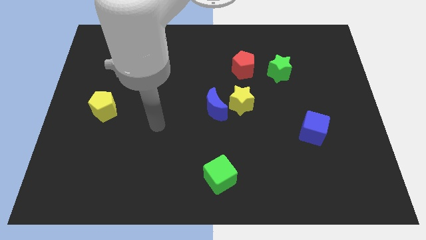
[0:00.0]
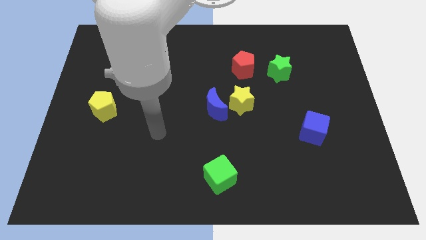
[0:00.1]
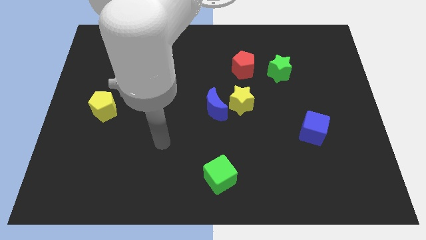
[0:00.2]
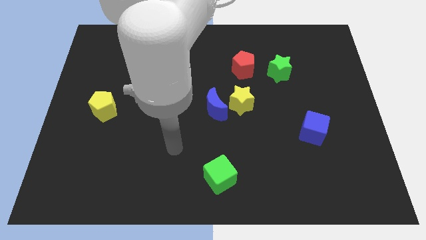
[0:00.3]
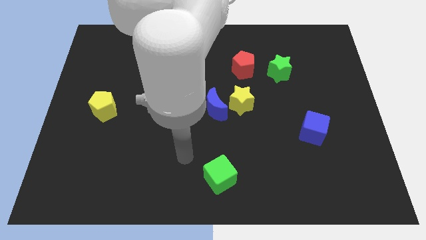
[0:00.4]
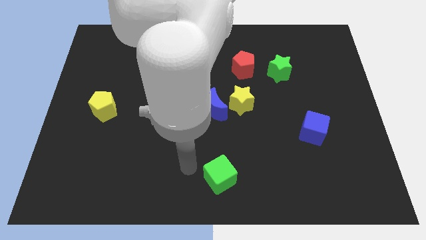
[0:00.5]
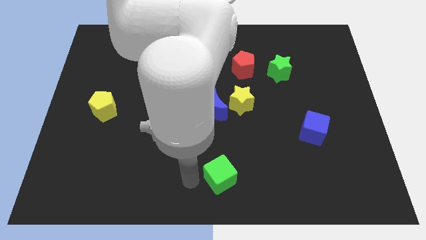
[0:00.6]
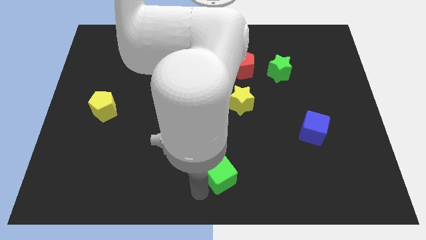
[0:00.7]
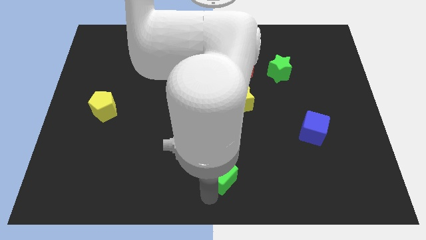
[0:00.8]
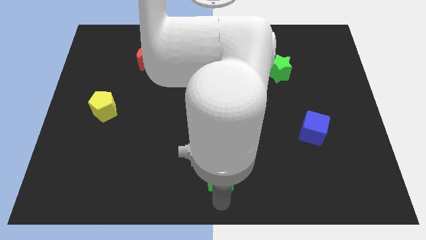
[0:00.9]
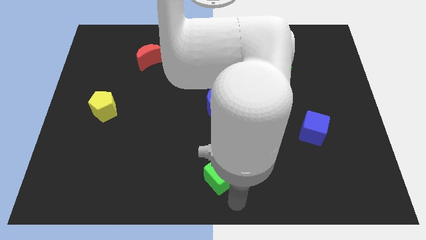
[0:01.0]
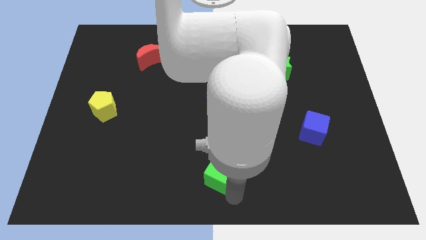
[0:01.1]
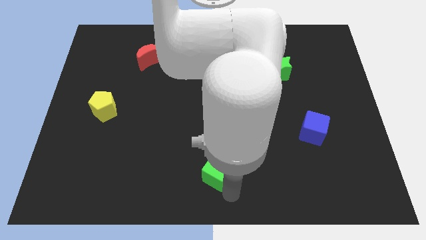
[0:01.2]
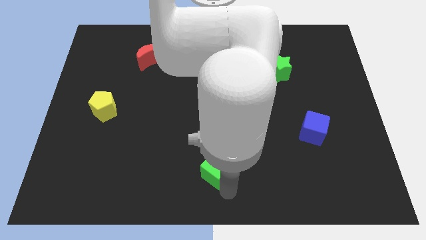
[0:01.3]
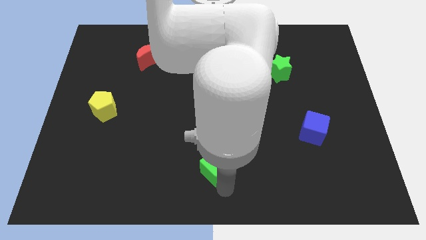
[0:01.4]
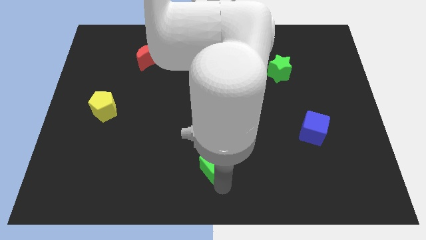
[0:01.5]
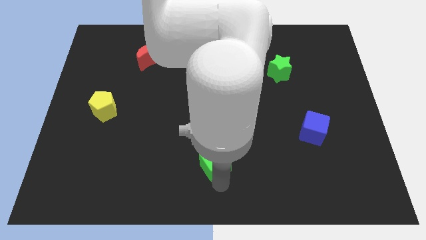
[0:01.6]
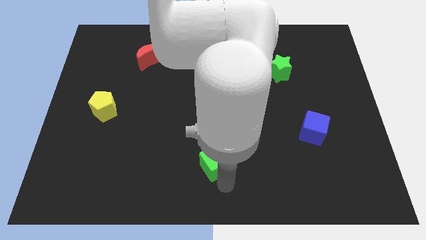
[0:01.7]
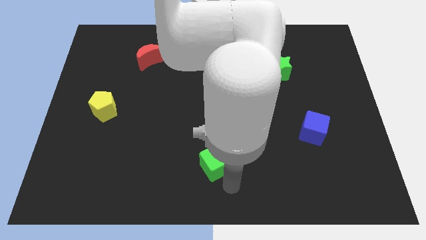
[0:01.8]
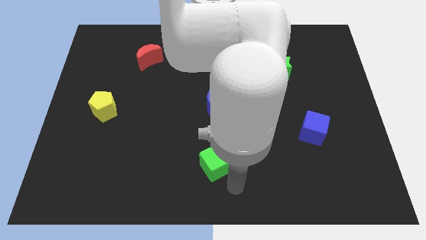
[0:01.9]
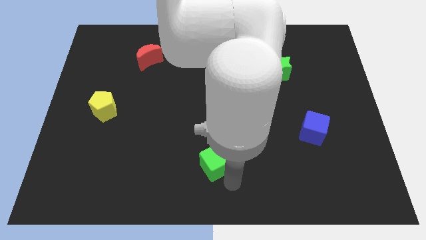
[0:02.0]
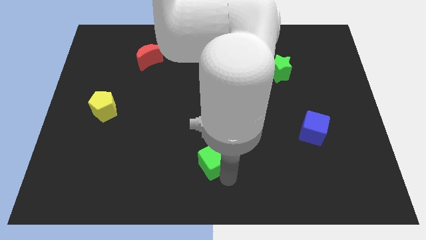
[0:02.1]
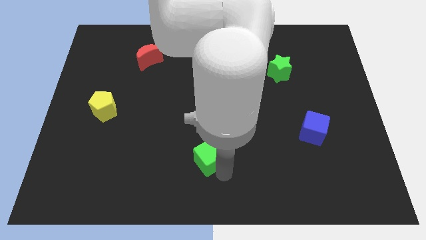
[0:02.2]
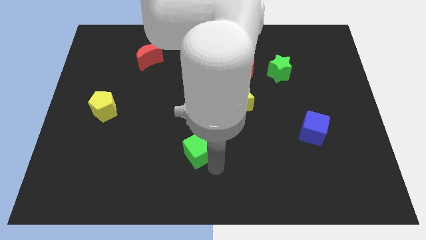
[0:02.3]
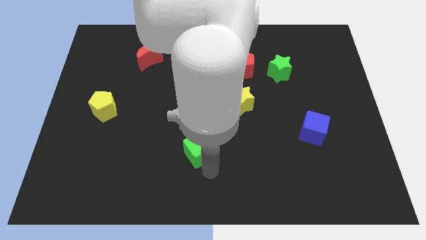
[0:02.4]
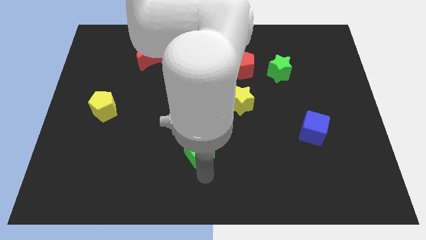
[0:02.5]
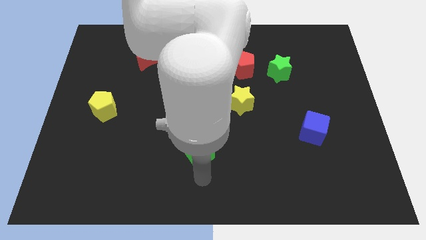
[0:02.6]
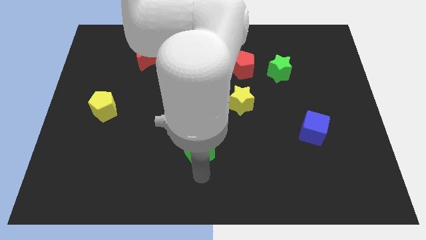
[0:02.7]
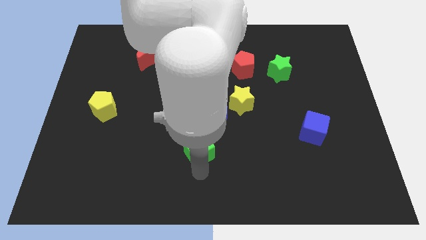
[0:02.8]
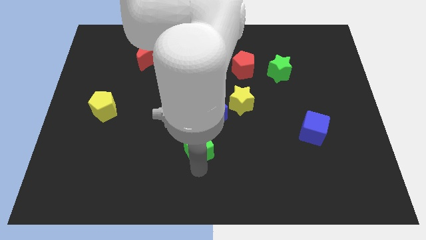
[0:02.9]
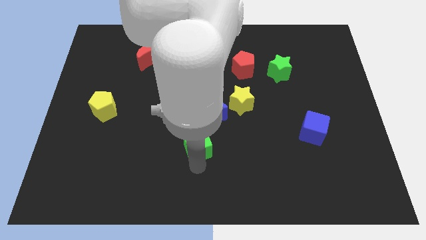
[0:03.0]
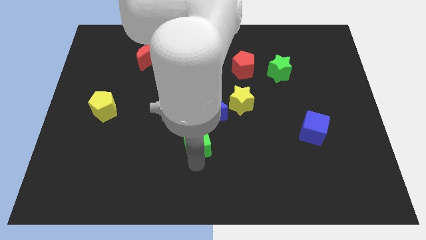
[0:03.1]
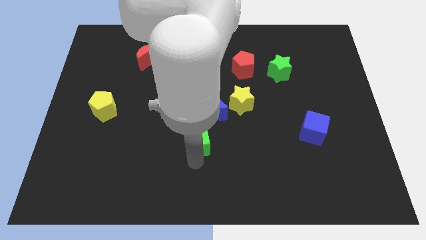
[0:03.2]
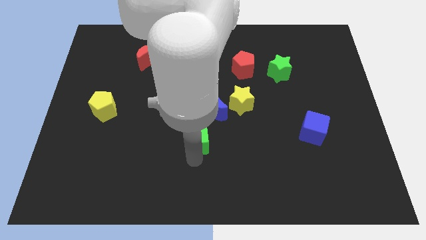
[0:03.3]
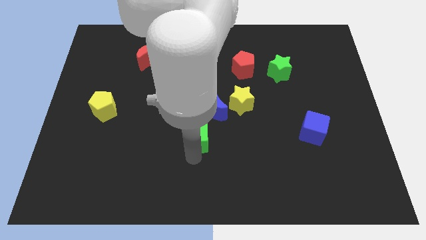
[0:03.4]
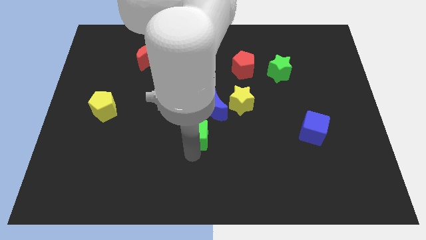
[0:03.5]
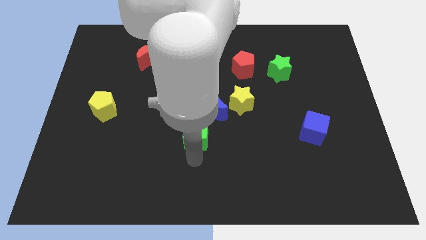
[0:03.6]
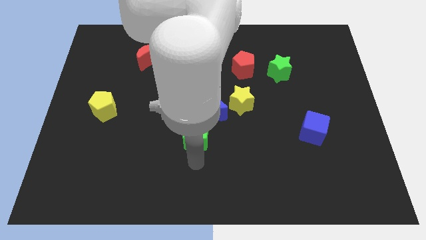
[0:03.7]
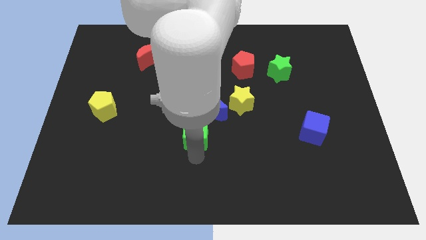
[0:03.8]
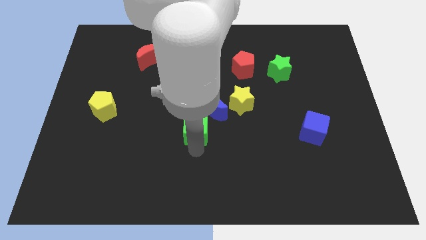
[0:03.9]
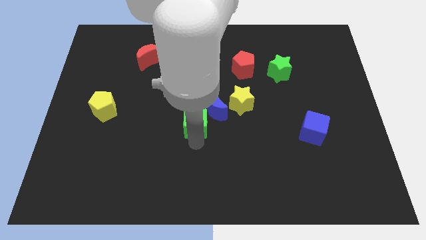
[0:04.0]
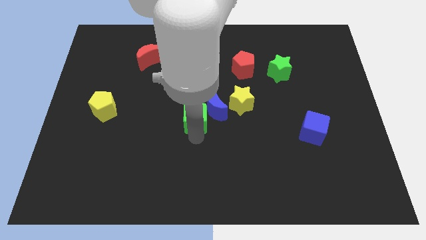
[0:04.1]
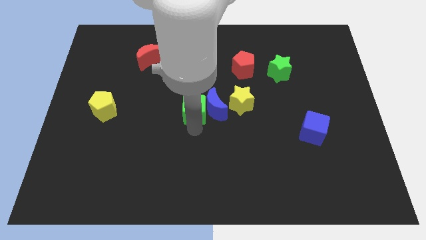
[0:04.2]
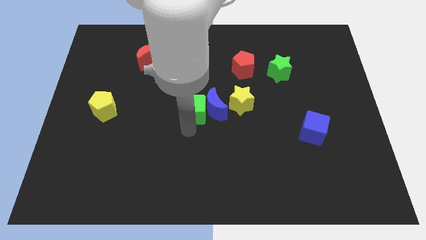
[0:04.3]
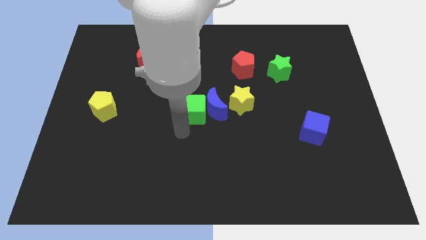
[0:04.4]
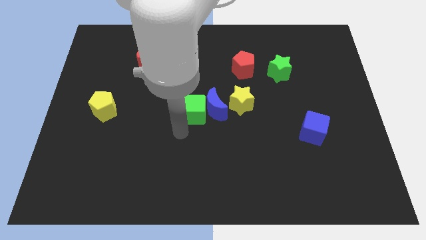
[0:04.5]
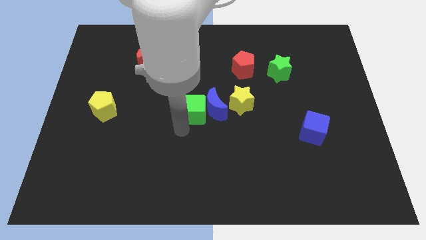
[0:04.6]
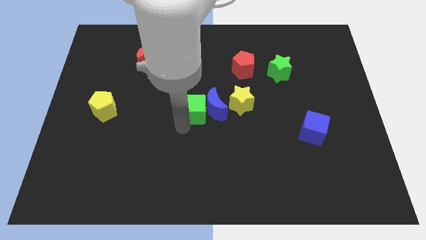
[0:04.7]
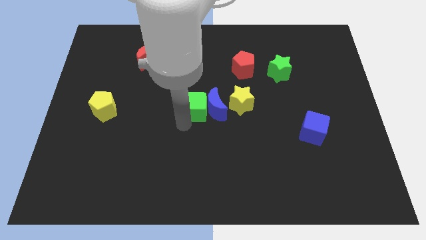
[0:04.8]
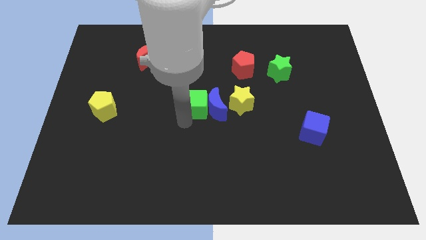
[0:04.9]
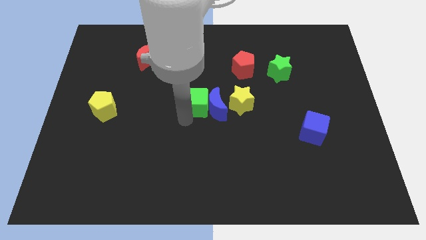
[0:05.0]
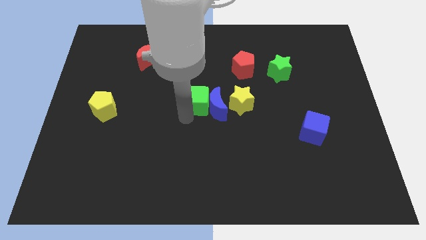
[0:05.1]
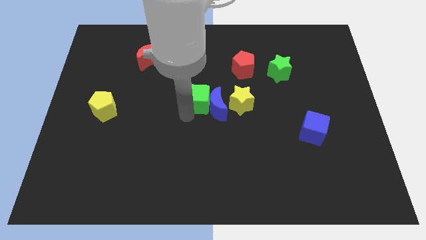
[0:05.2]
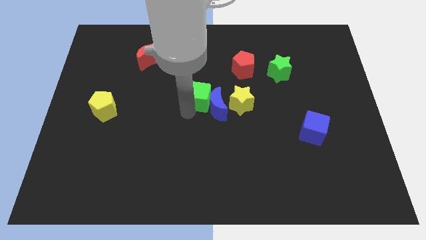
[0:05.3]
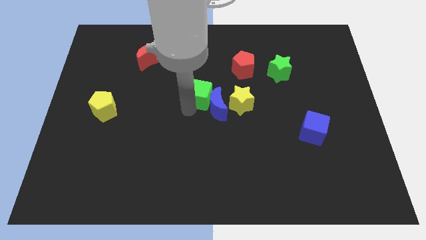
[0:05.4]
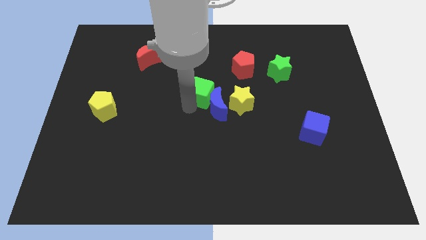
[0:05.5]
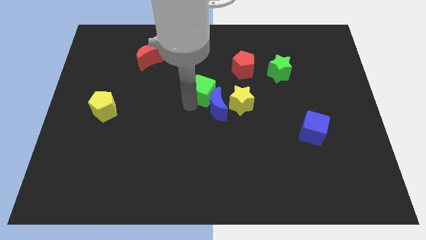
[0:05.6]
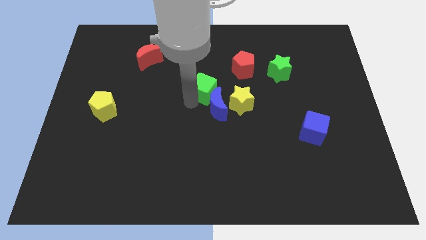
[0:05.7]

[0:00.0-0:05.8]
slide the green cube to the bottom left side of the red pentagon

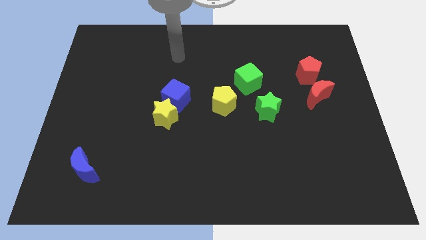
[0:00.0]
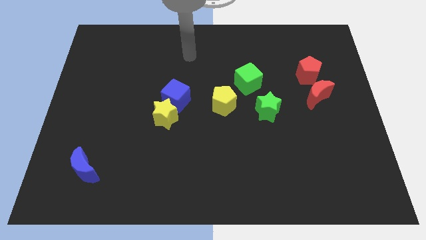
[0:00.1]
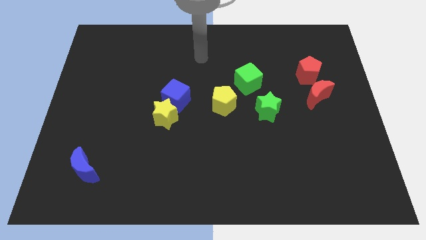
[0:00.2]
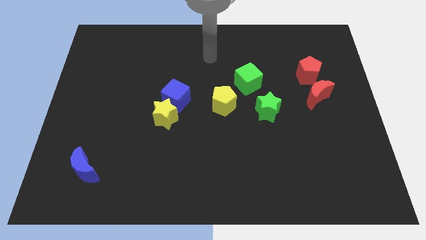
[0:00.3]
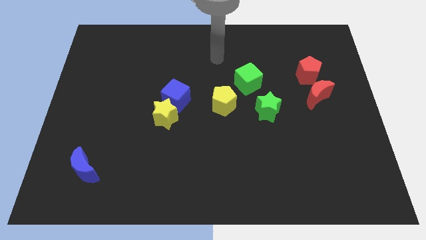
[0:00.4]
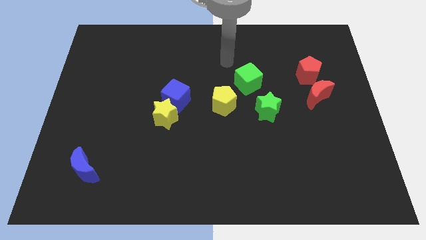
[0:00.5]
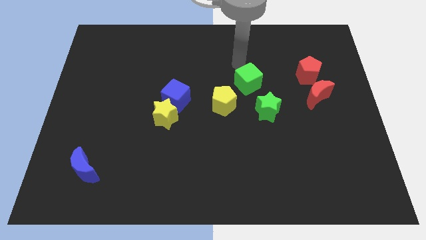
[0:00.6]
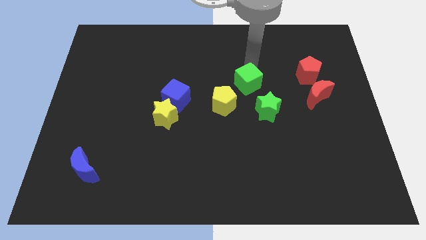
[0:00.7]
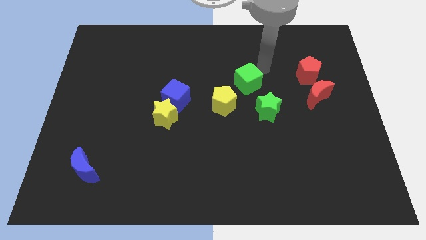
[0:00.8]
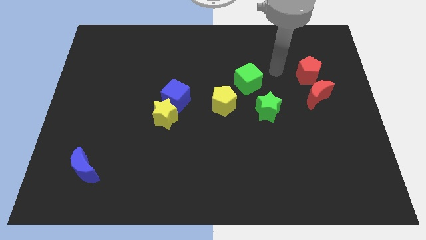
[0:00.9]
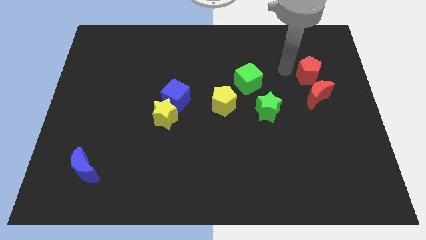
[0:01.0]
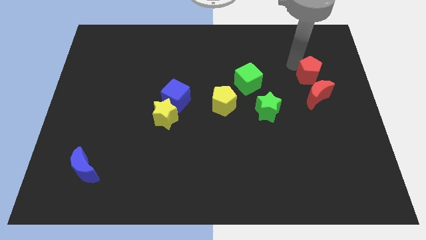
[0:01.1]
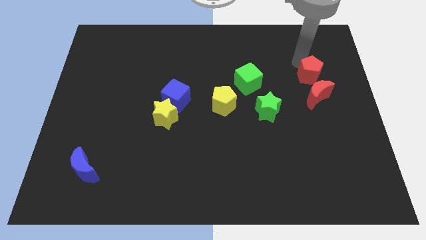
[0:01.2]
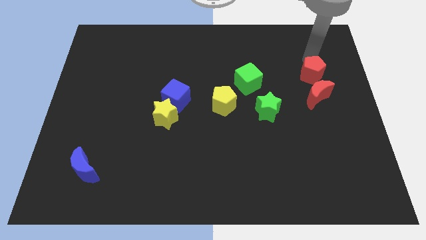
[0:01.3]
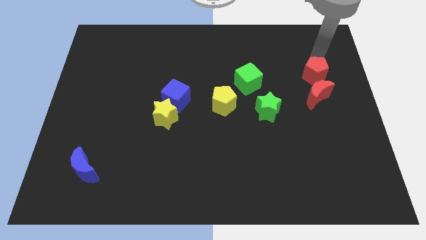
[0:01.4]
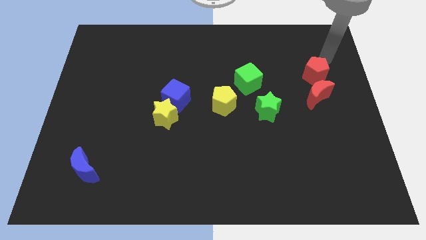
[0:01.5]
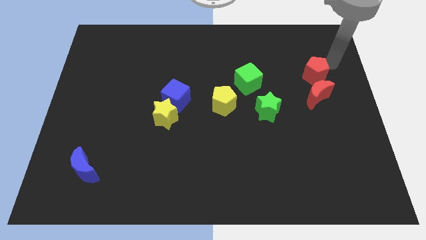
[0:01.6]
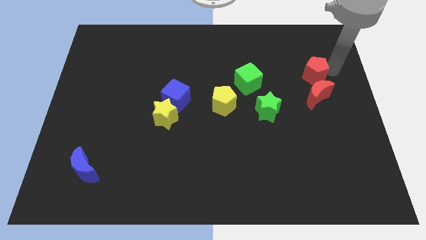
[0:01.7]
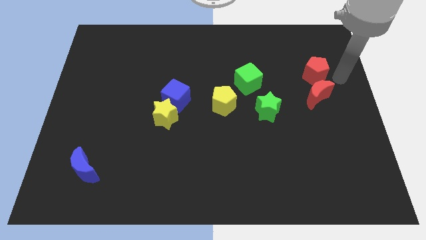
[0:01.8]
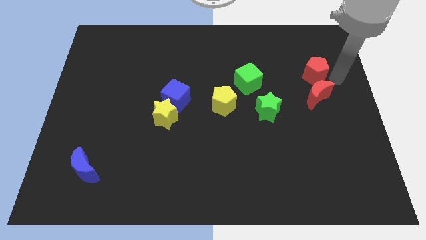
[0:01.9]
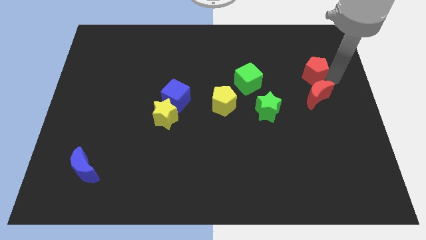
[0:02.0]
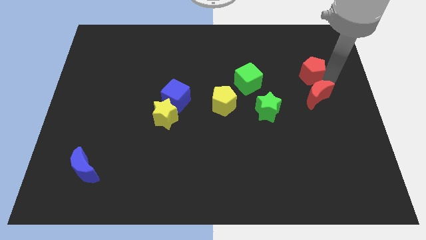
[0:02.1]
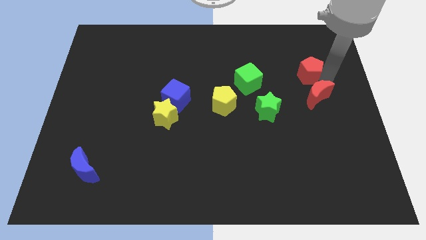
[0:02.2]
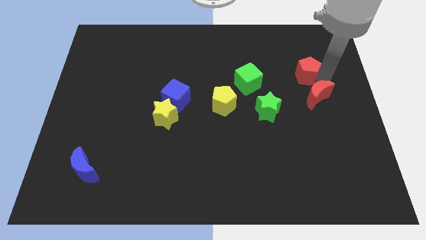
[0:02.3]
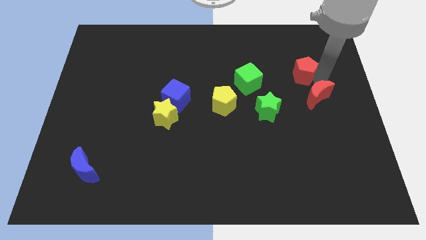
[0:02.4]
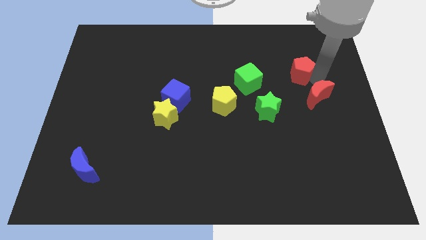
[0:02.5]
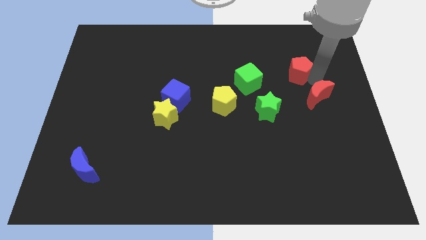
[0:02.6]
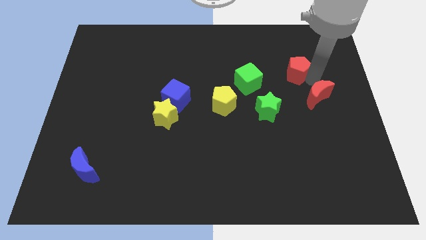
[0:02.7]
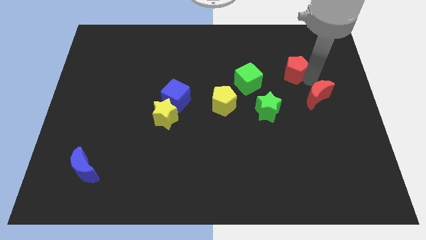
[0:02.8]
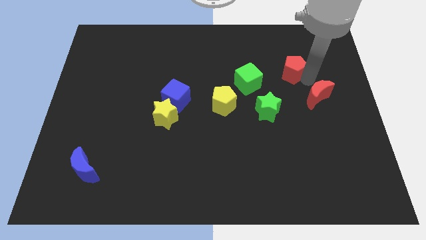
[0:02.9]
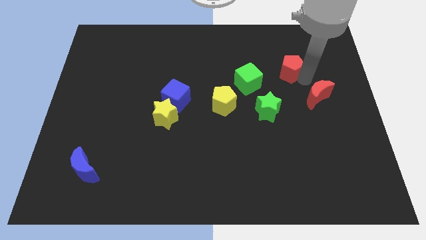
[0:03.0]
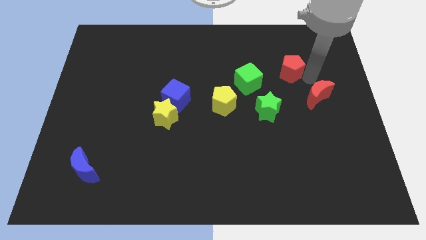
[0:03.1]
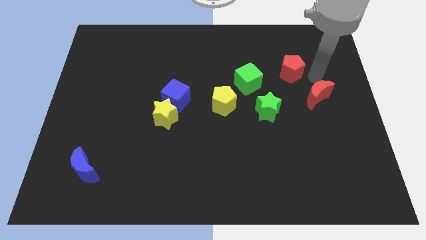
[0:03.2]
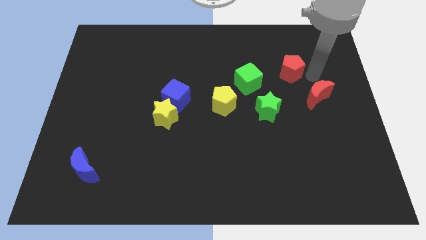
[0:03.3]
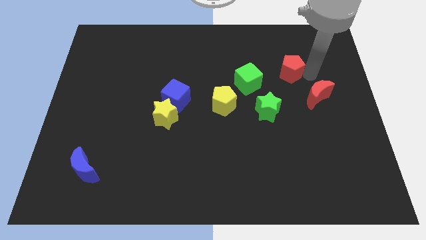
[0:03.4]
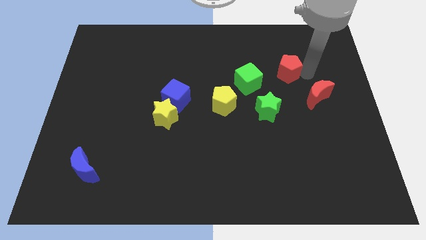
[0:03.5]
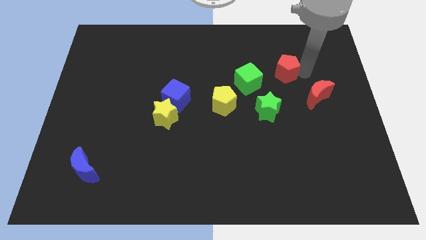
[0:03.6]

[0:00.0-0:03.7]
slide the red pentagon diagonally up and to the right of the green cube
